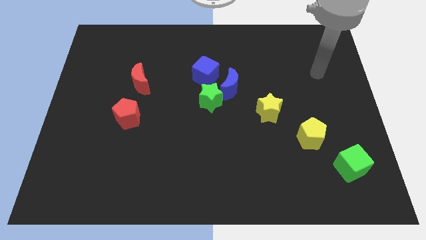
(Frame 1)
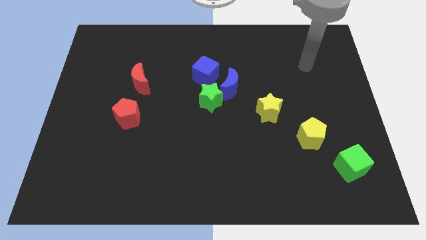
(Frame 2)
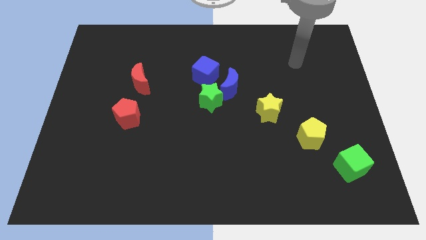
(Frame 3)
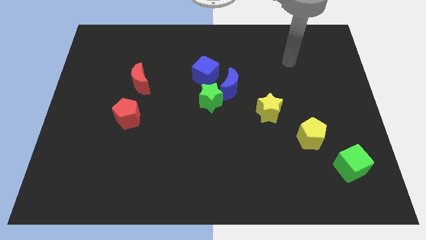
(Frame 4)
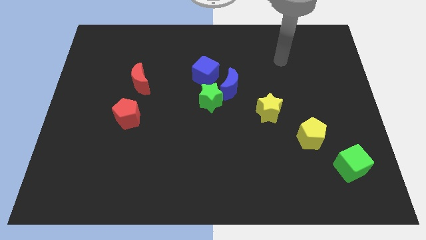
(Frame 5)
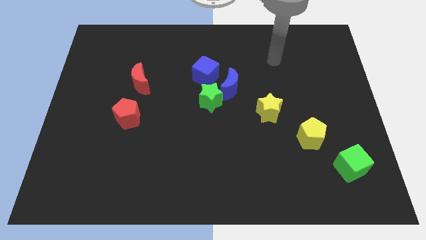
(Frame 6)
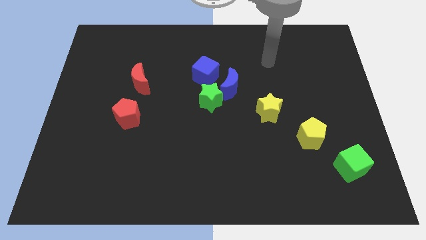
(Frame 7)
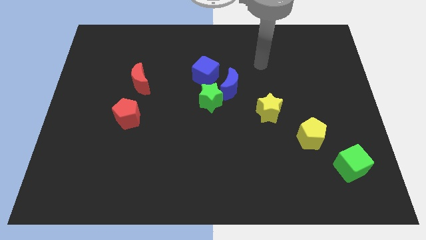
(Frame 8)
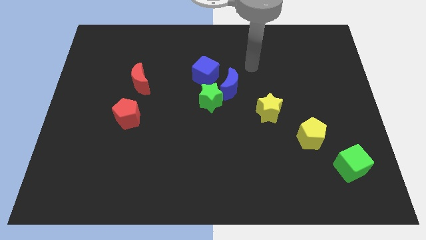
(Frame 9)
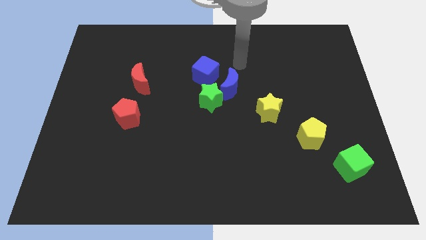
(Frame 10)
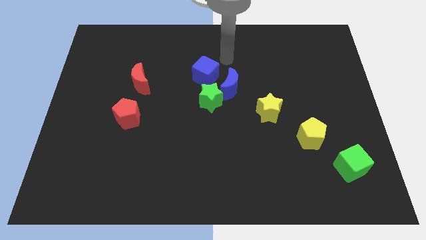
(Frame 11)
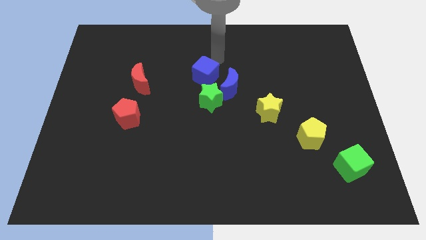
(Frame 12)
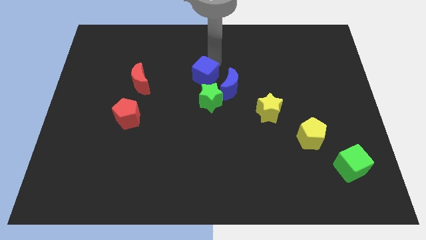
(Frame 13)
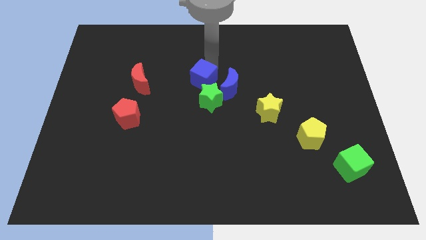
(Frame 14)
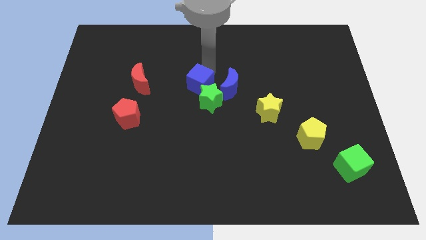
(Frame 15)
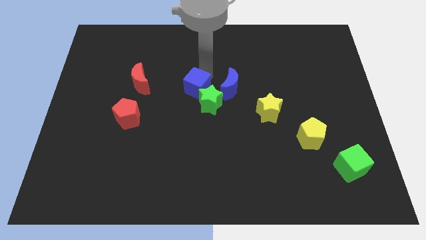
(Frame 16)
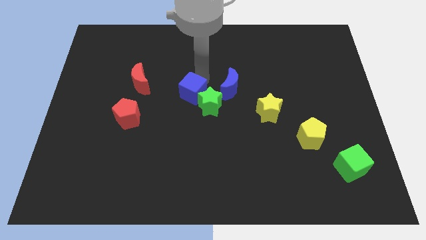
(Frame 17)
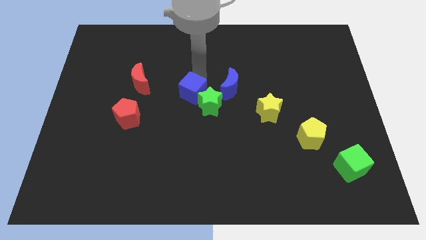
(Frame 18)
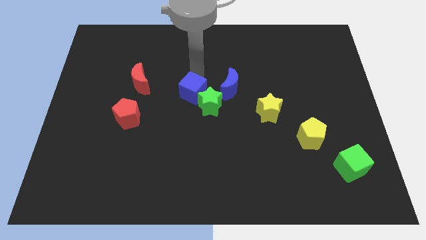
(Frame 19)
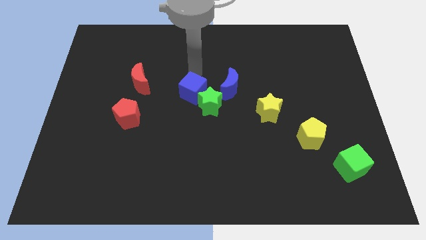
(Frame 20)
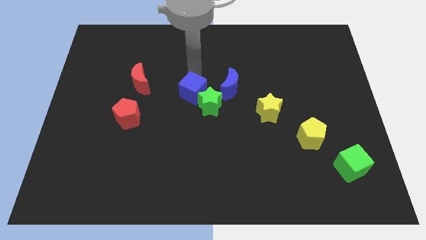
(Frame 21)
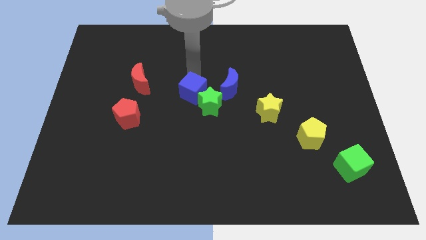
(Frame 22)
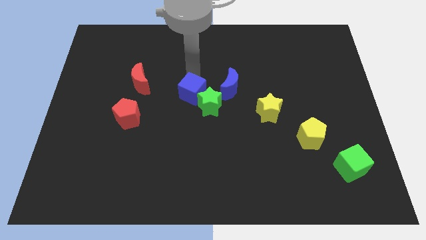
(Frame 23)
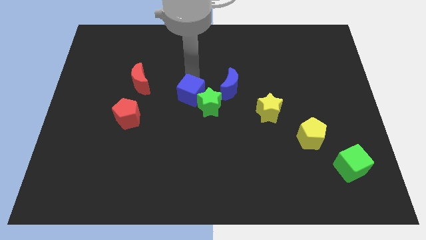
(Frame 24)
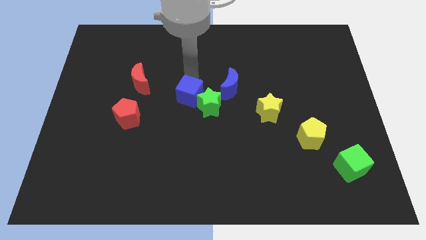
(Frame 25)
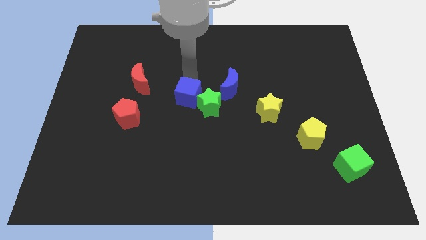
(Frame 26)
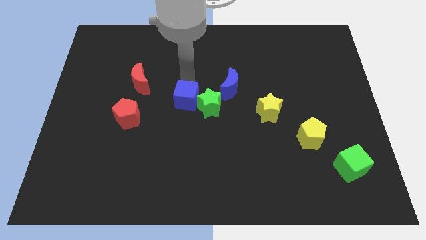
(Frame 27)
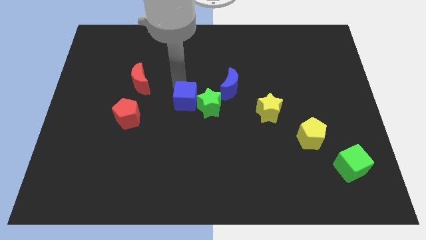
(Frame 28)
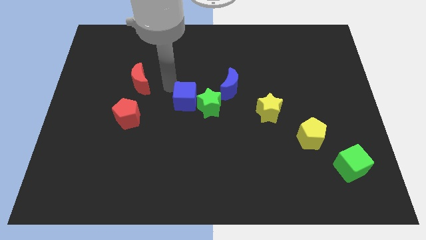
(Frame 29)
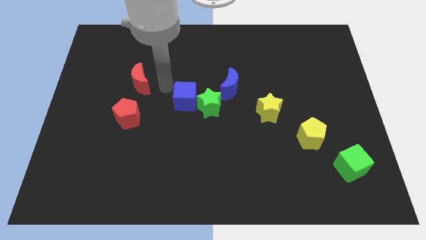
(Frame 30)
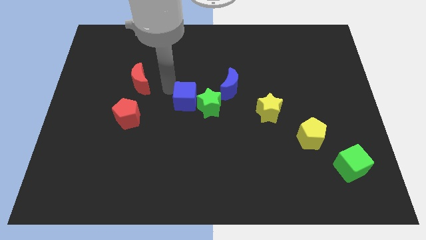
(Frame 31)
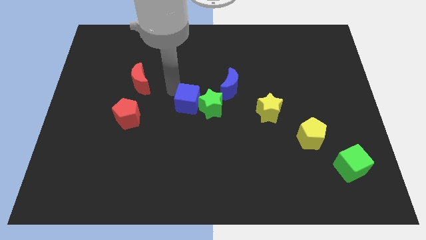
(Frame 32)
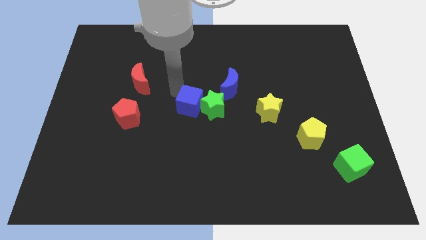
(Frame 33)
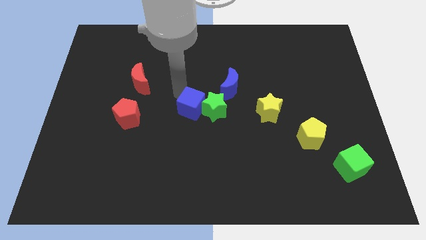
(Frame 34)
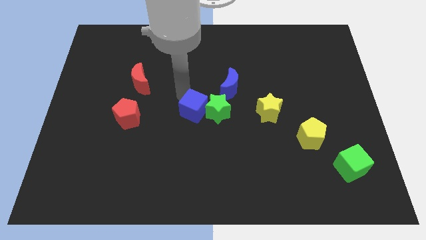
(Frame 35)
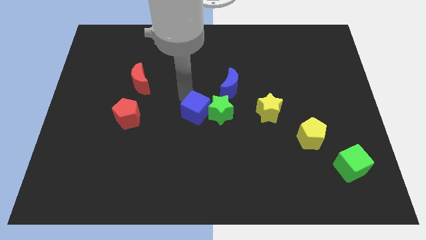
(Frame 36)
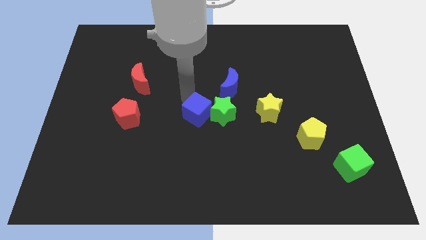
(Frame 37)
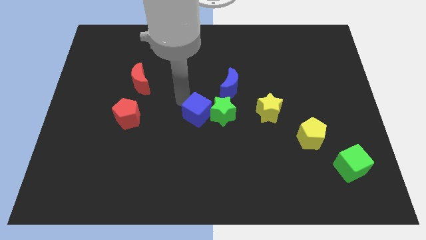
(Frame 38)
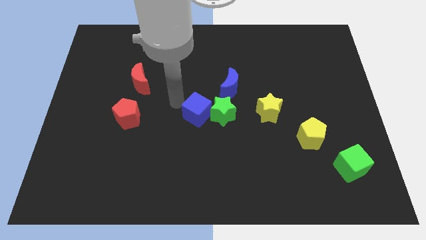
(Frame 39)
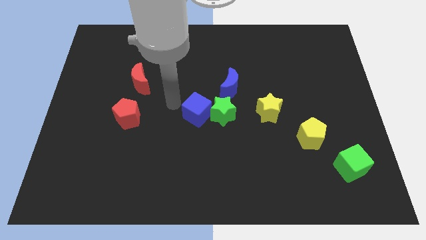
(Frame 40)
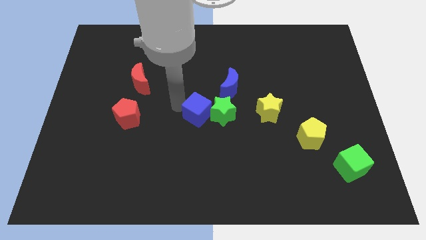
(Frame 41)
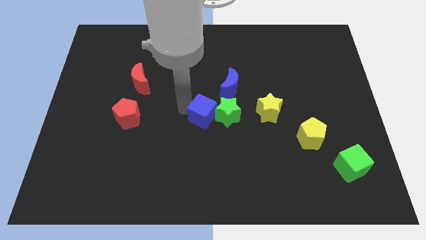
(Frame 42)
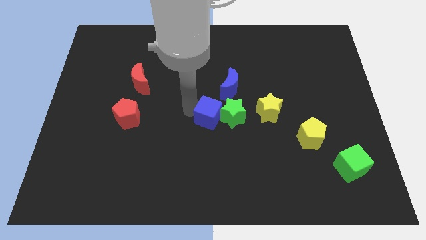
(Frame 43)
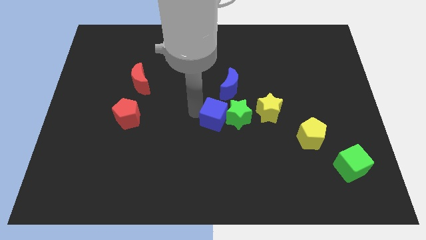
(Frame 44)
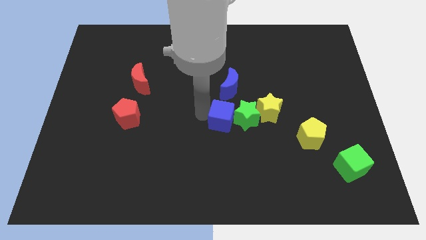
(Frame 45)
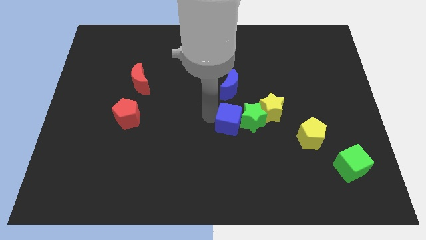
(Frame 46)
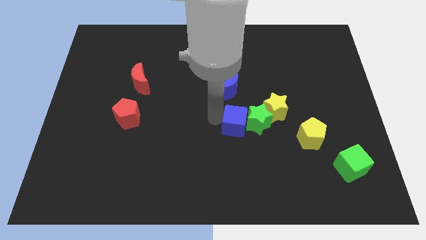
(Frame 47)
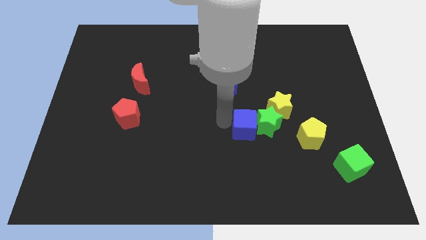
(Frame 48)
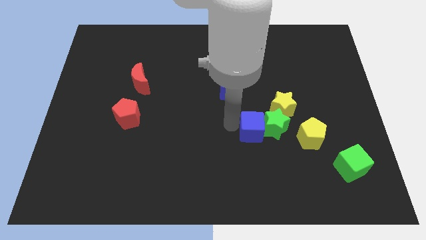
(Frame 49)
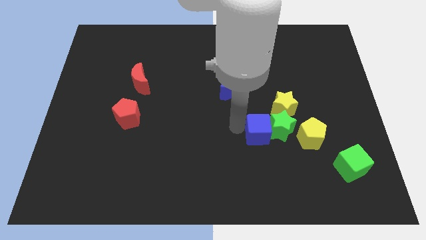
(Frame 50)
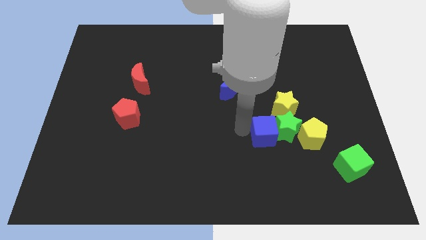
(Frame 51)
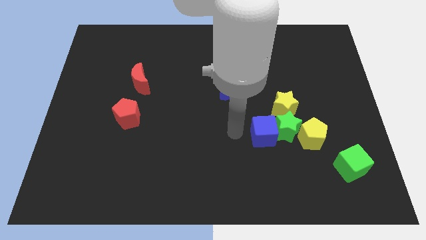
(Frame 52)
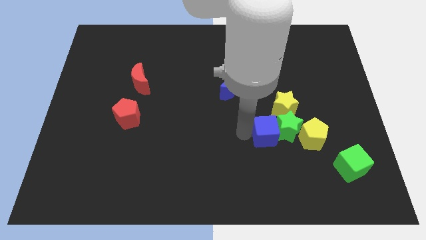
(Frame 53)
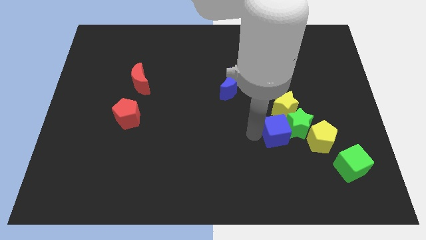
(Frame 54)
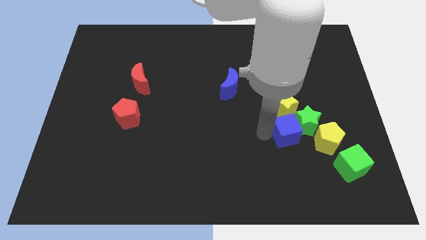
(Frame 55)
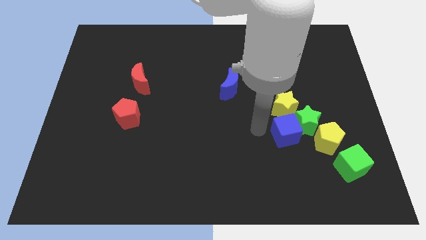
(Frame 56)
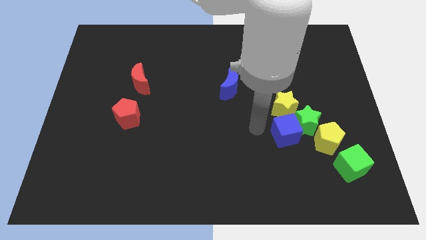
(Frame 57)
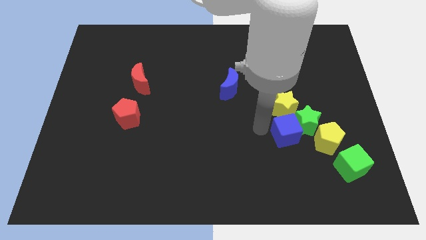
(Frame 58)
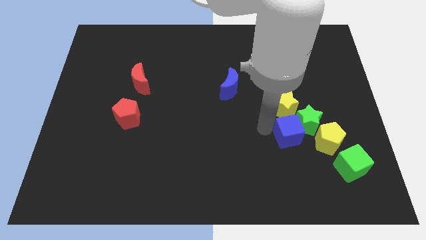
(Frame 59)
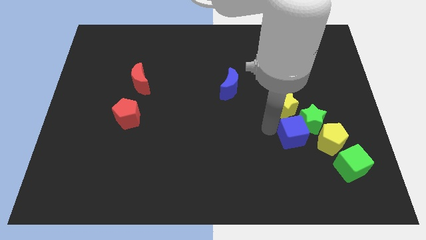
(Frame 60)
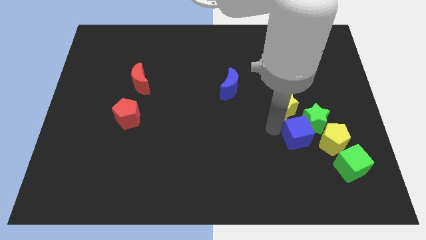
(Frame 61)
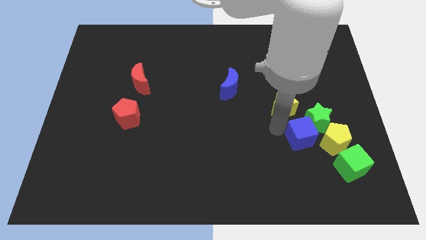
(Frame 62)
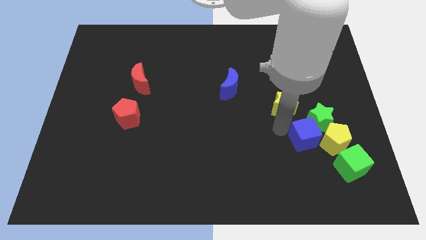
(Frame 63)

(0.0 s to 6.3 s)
move the blue cube next to the yellow pentagon

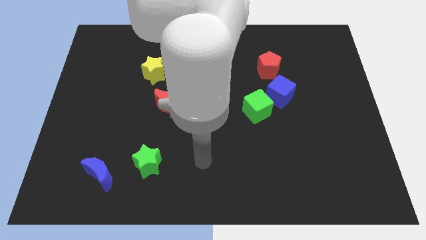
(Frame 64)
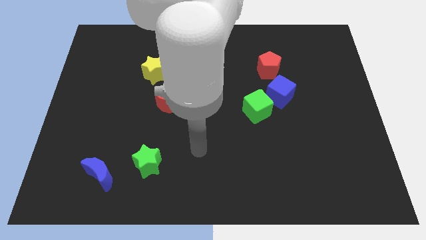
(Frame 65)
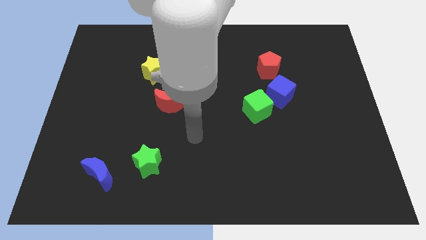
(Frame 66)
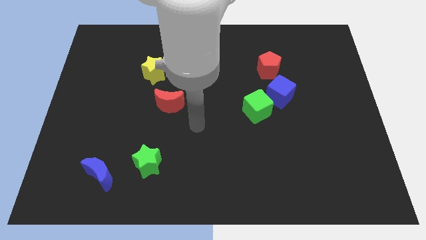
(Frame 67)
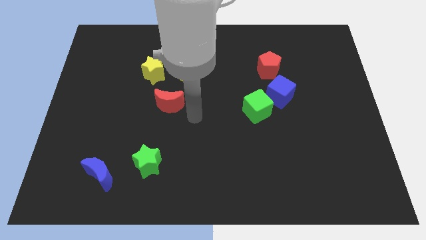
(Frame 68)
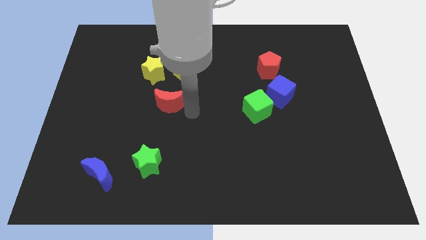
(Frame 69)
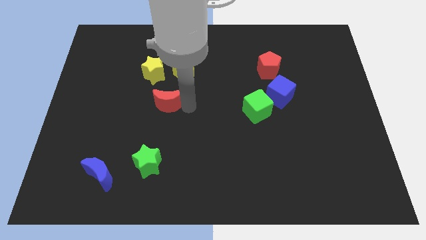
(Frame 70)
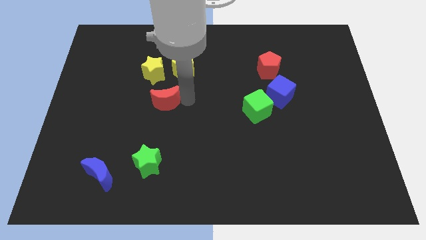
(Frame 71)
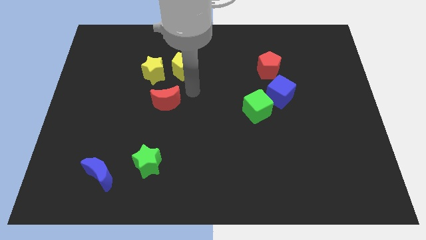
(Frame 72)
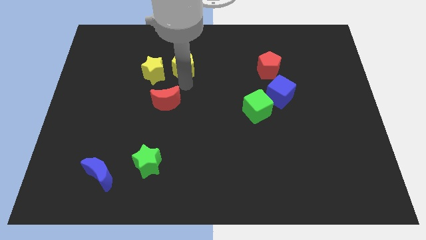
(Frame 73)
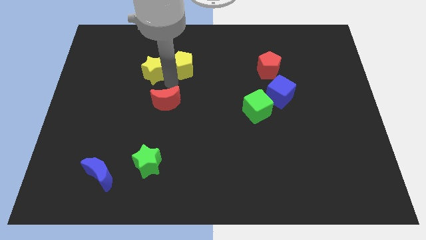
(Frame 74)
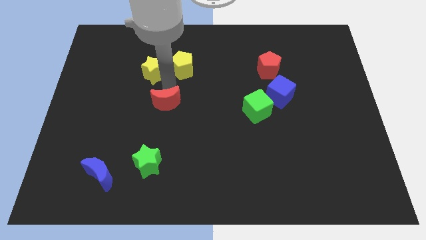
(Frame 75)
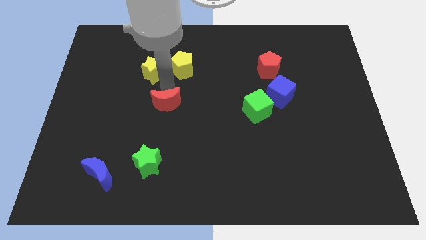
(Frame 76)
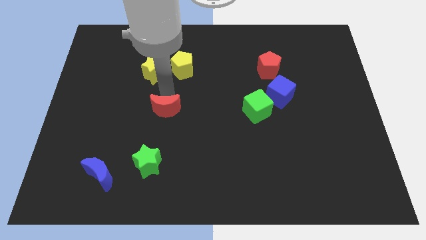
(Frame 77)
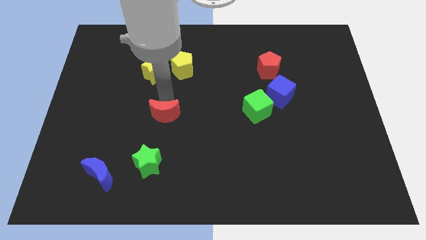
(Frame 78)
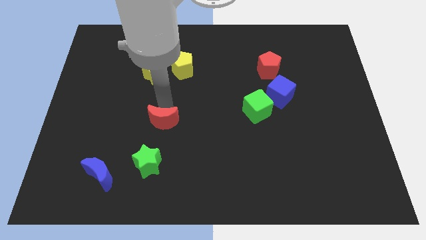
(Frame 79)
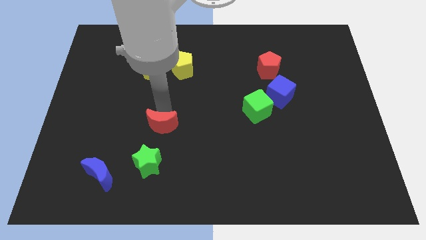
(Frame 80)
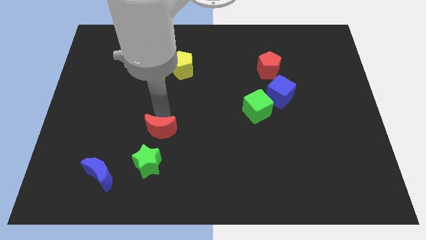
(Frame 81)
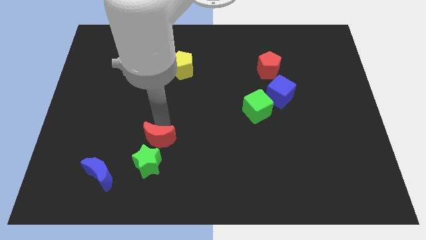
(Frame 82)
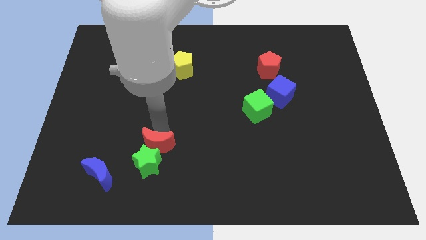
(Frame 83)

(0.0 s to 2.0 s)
put the red moon to the green star
